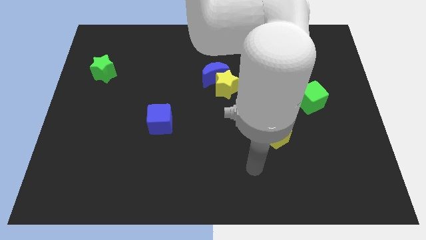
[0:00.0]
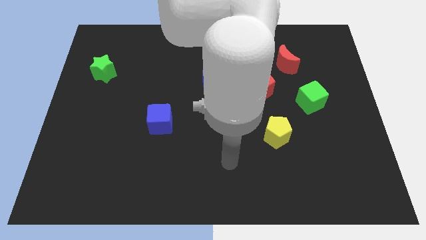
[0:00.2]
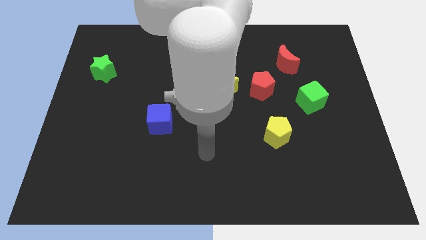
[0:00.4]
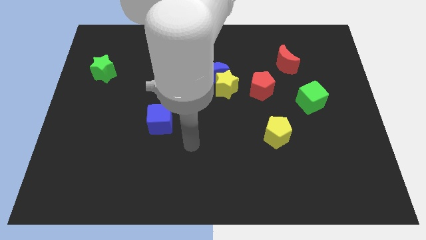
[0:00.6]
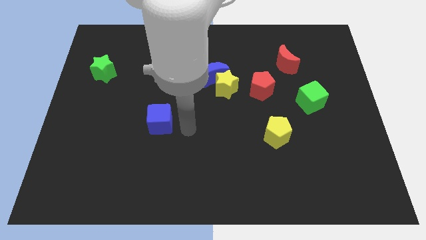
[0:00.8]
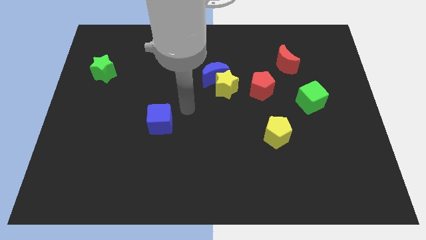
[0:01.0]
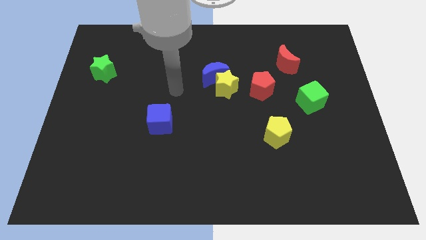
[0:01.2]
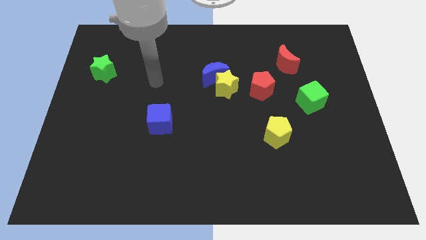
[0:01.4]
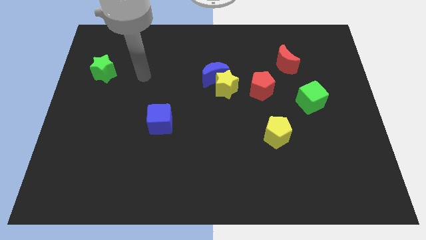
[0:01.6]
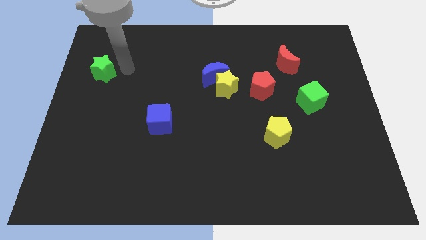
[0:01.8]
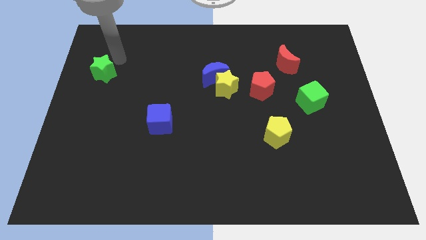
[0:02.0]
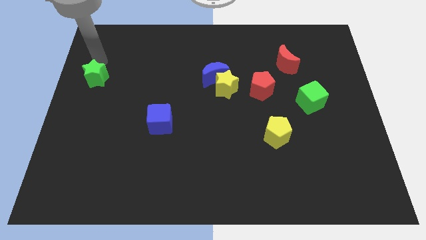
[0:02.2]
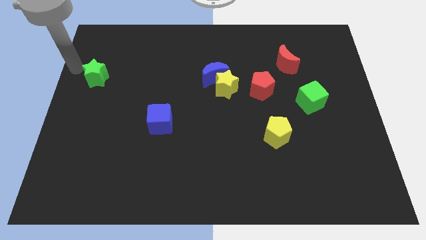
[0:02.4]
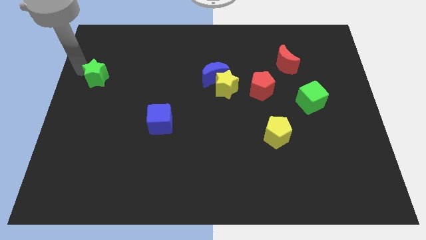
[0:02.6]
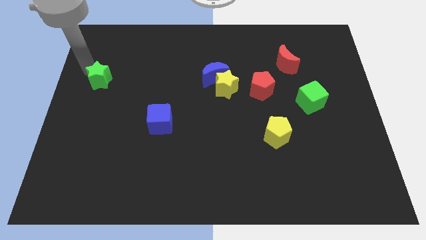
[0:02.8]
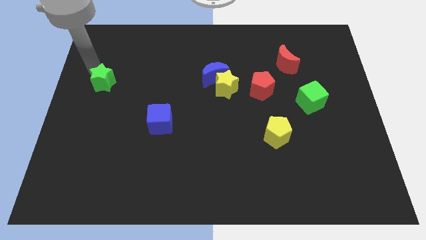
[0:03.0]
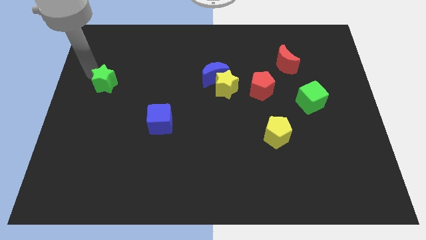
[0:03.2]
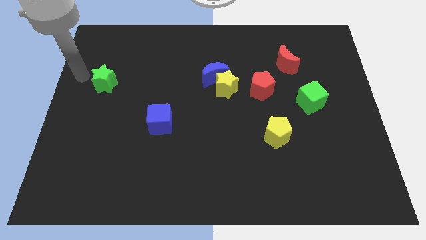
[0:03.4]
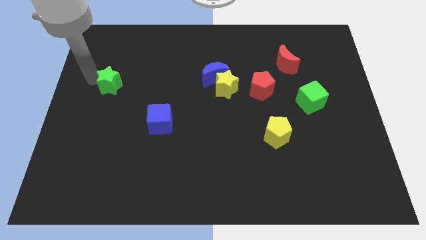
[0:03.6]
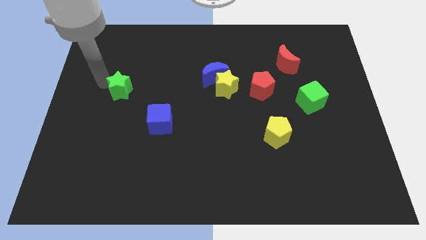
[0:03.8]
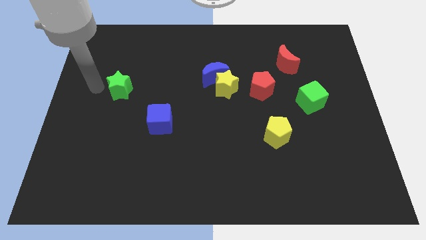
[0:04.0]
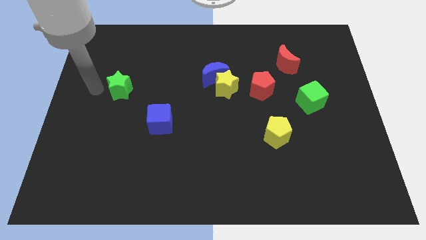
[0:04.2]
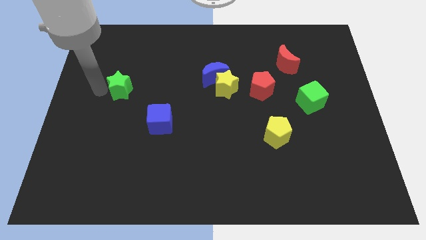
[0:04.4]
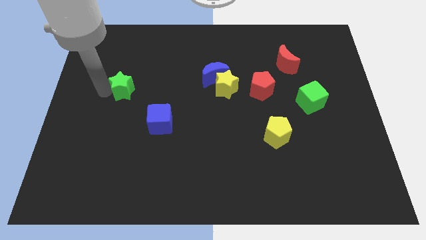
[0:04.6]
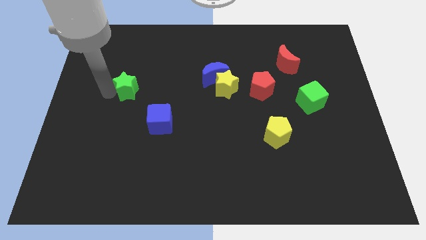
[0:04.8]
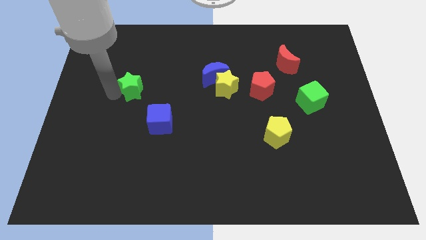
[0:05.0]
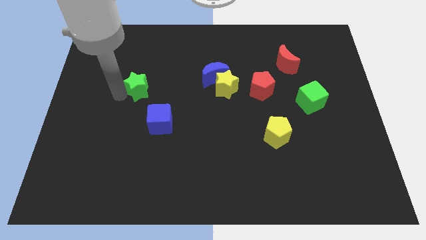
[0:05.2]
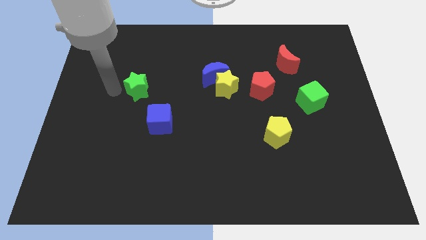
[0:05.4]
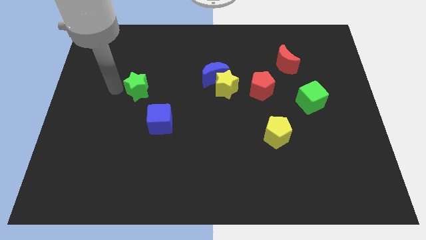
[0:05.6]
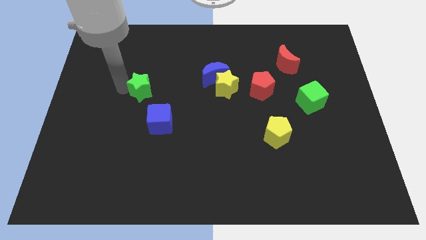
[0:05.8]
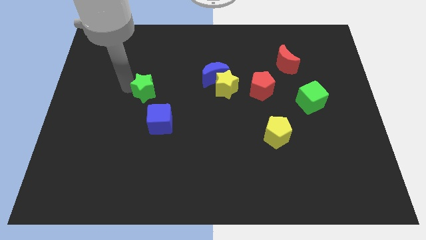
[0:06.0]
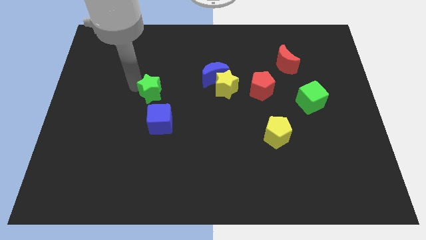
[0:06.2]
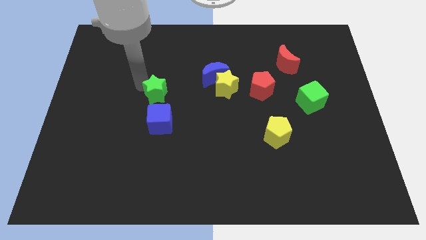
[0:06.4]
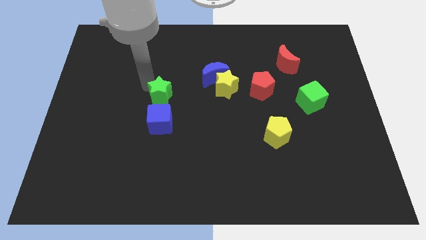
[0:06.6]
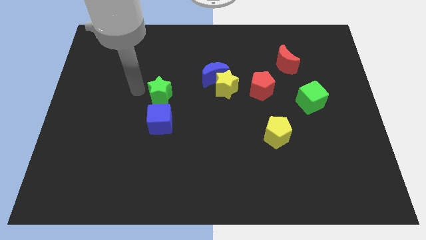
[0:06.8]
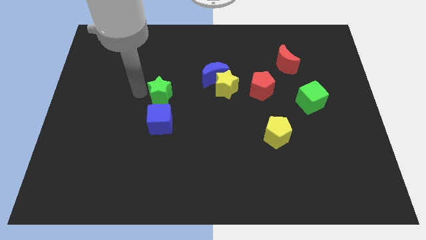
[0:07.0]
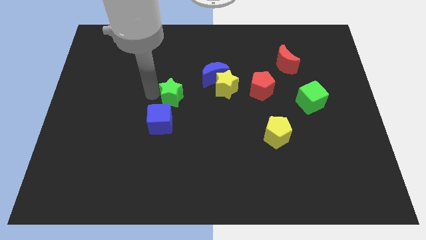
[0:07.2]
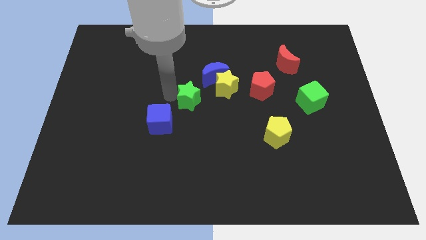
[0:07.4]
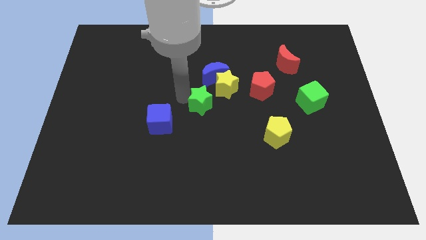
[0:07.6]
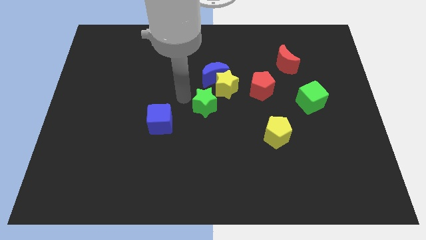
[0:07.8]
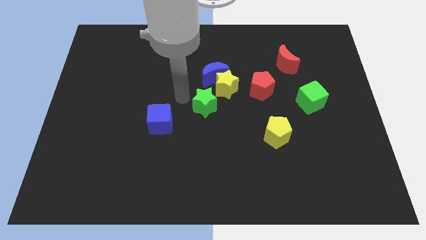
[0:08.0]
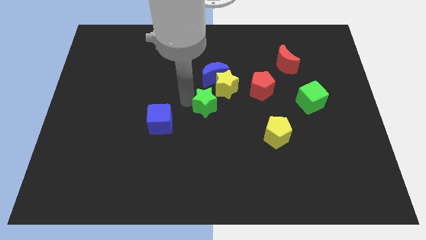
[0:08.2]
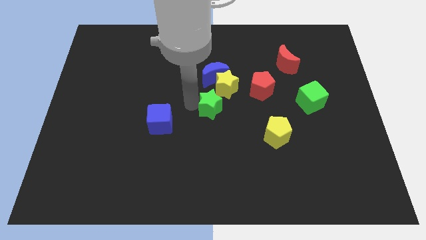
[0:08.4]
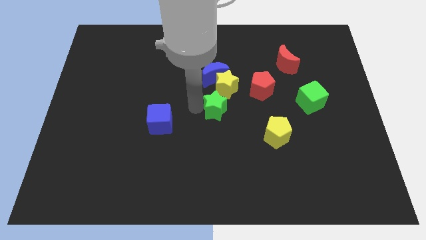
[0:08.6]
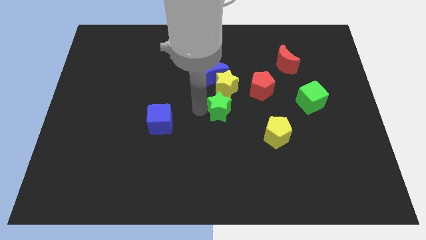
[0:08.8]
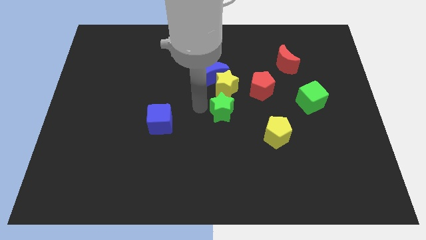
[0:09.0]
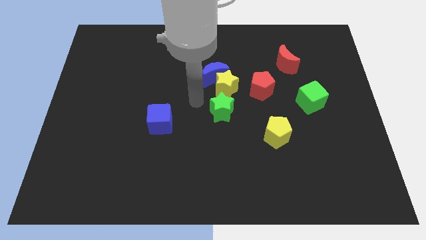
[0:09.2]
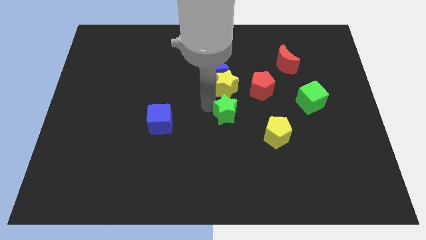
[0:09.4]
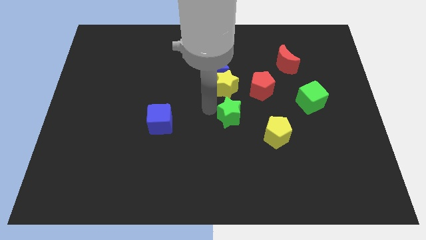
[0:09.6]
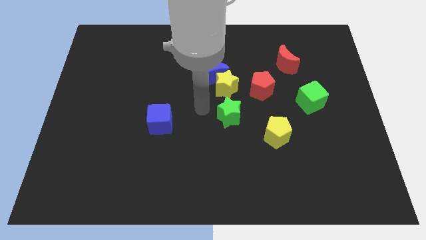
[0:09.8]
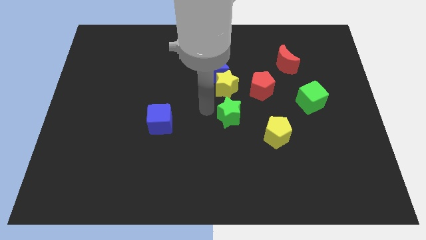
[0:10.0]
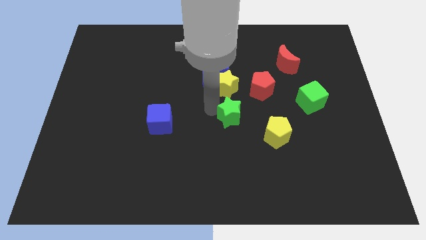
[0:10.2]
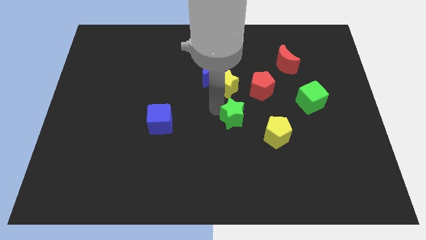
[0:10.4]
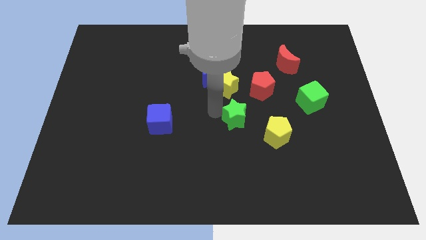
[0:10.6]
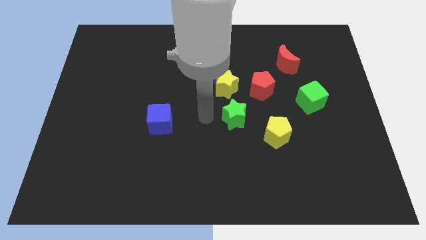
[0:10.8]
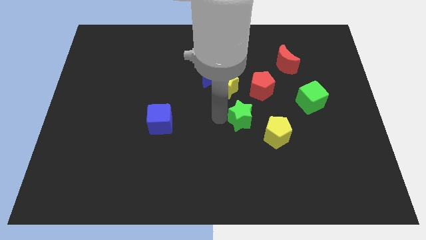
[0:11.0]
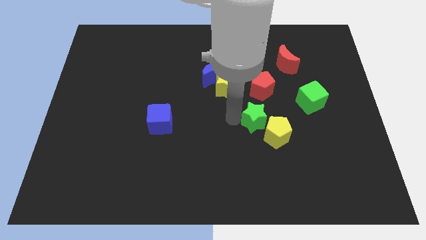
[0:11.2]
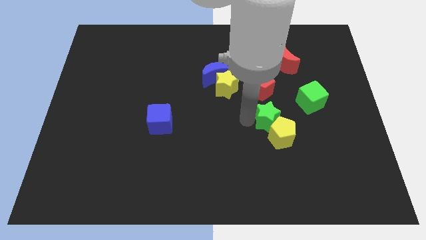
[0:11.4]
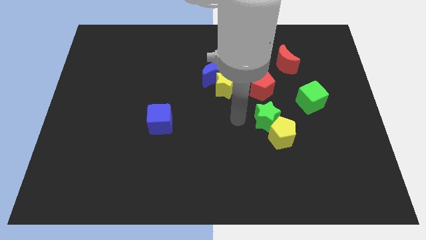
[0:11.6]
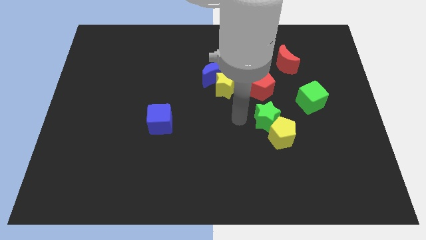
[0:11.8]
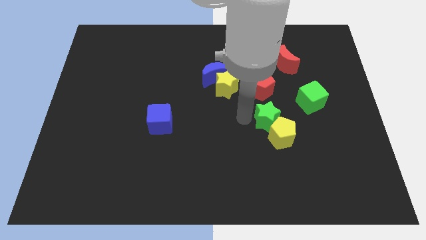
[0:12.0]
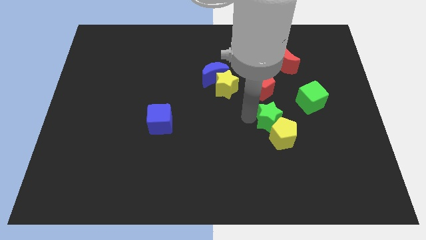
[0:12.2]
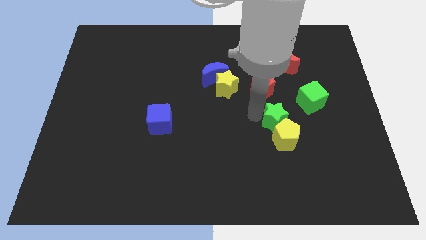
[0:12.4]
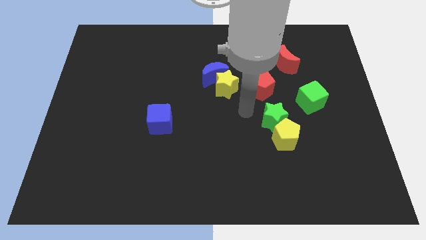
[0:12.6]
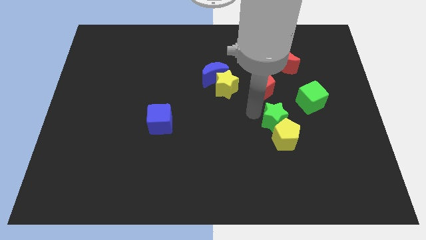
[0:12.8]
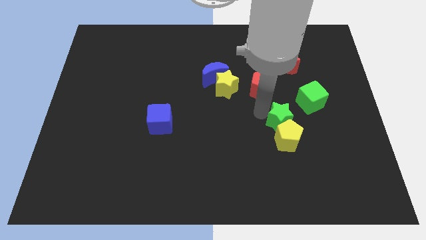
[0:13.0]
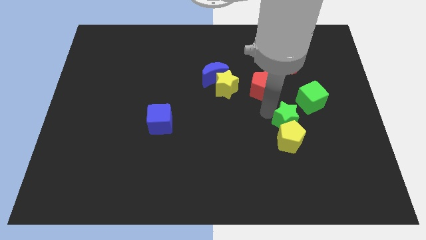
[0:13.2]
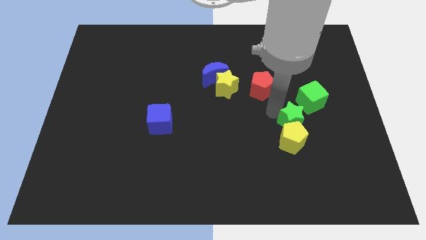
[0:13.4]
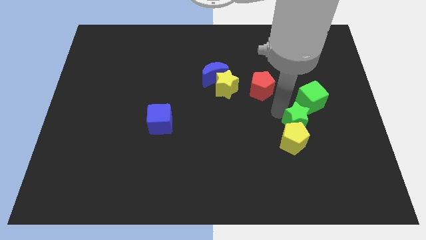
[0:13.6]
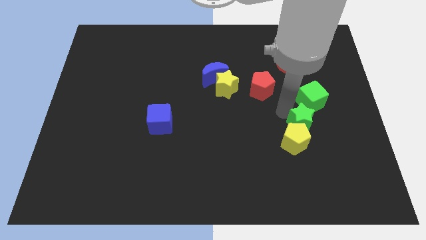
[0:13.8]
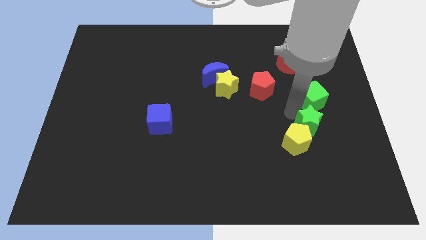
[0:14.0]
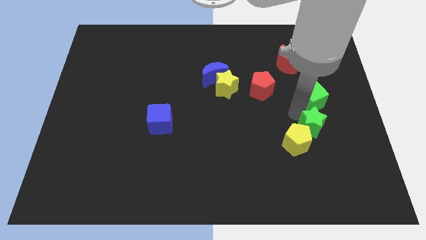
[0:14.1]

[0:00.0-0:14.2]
put the green star to the right of the yellow pentagon
